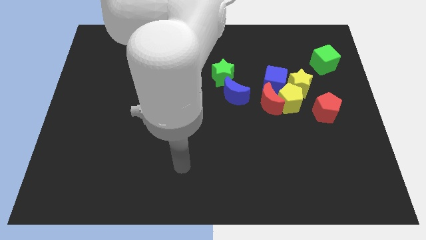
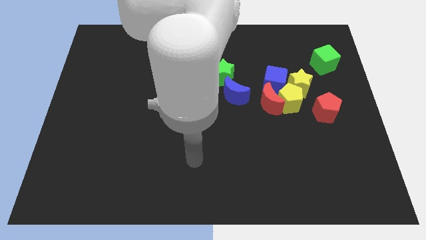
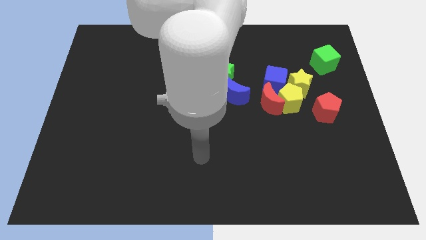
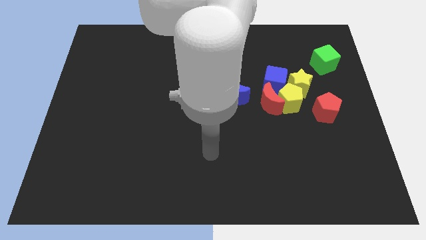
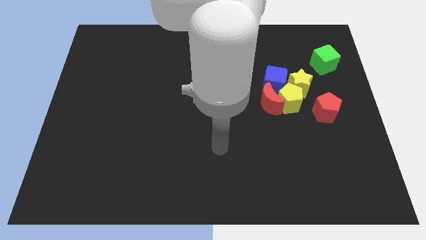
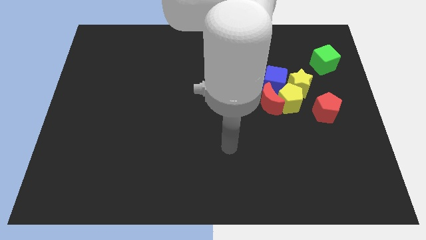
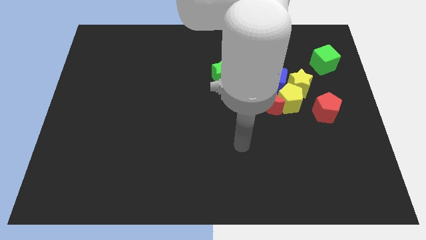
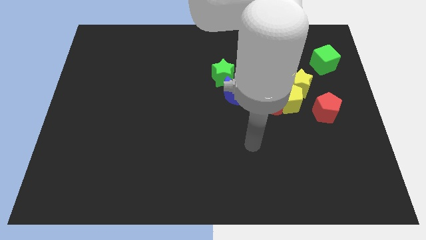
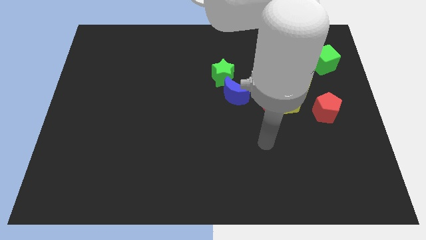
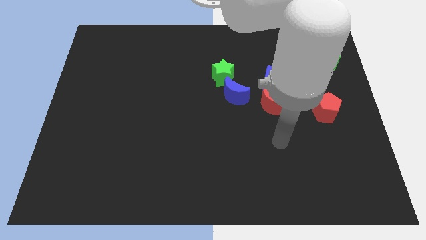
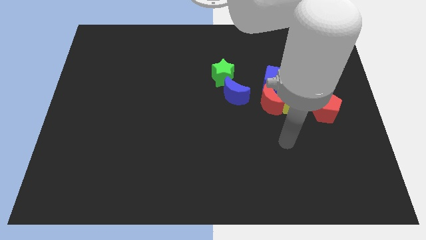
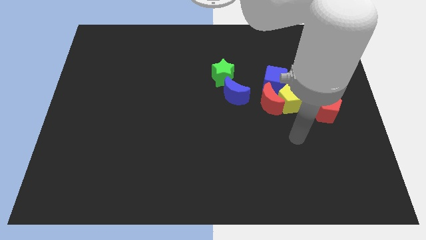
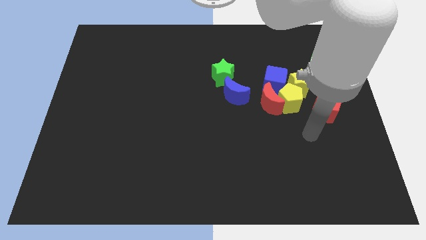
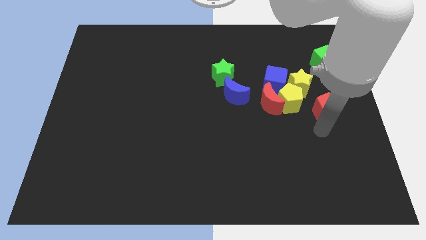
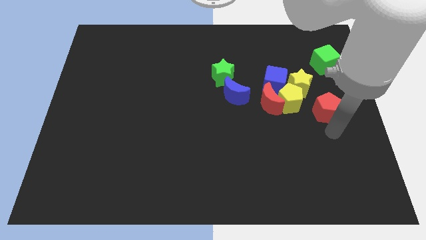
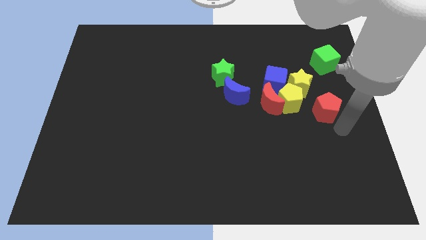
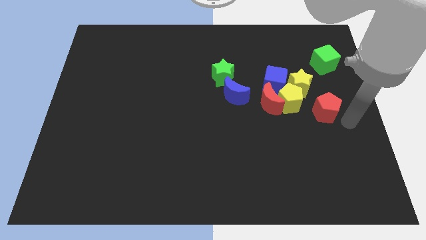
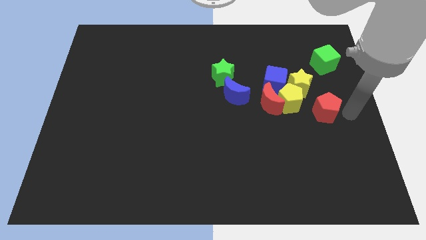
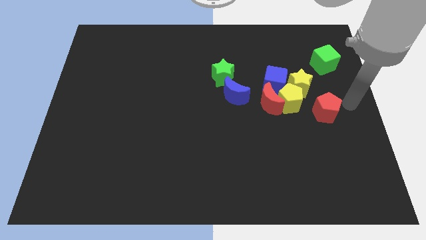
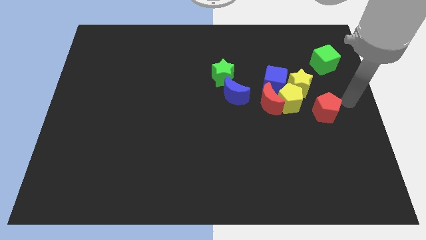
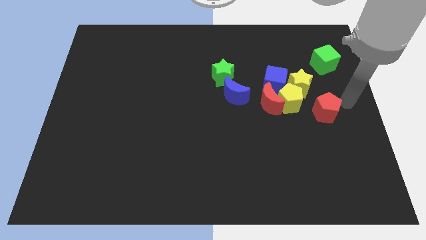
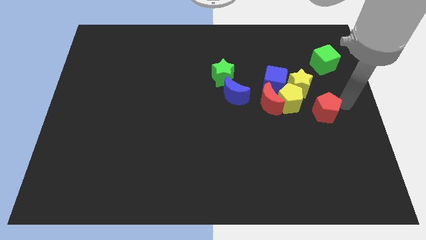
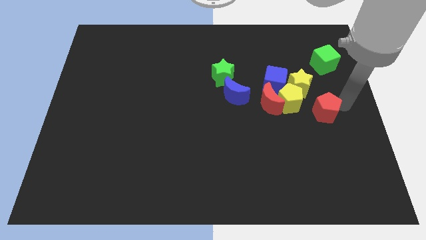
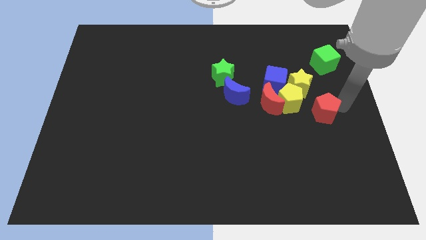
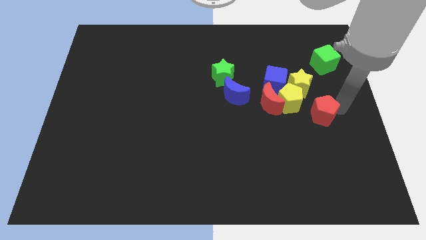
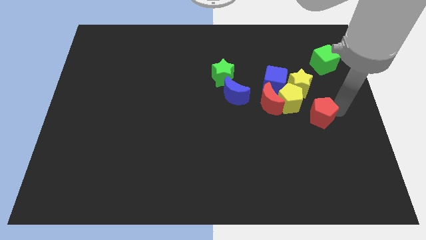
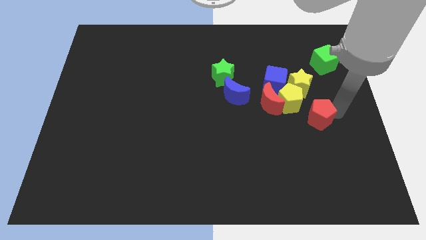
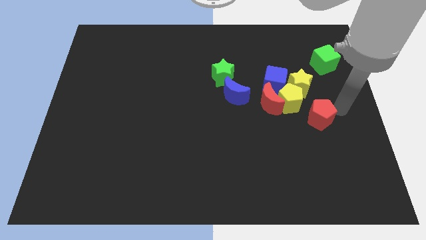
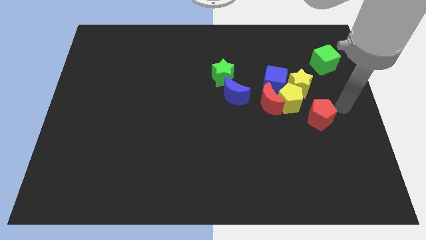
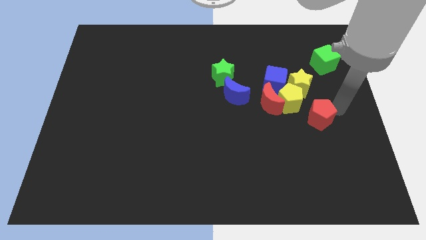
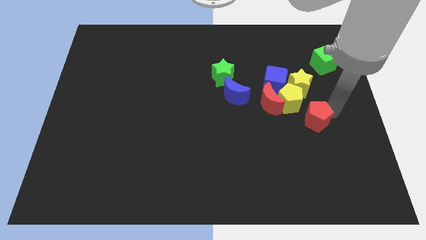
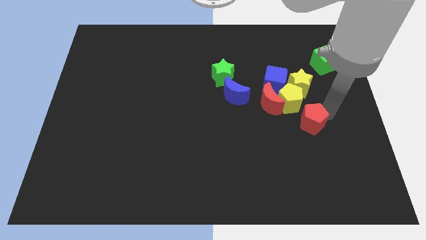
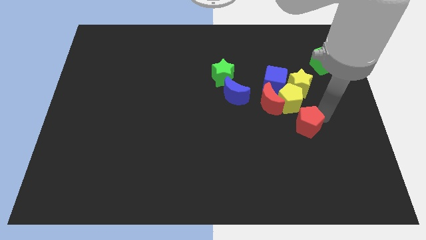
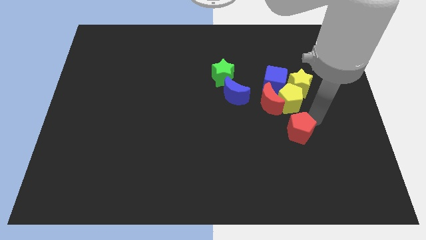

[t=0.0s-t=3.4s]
slightly move the red pentagon diagonally down and to the left

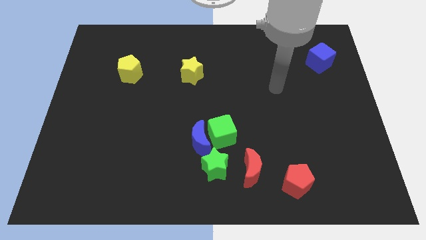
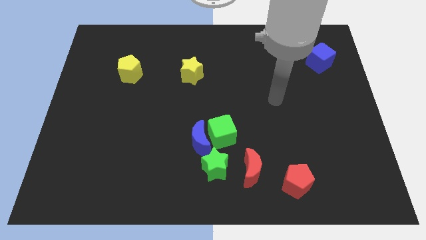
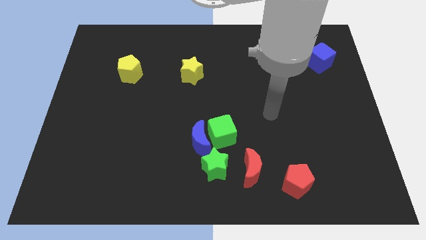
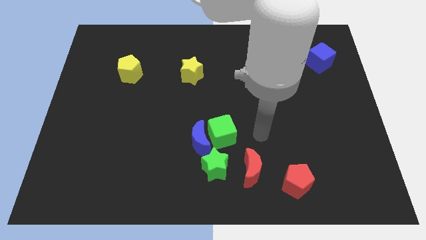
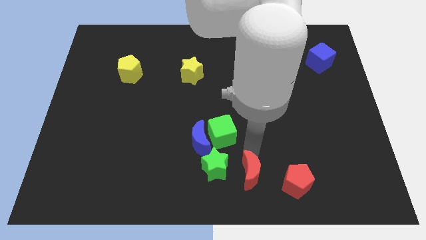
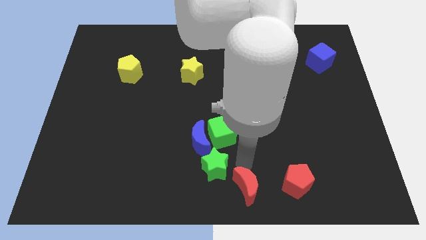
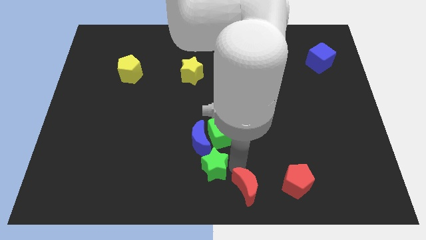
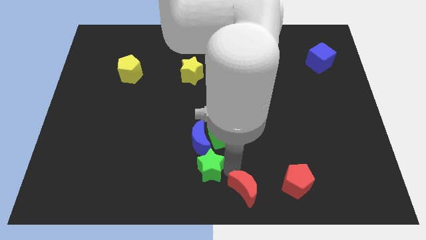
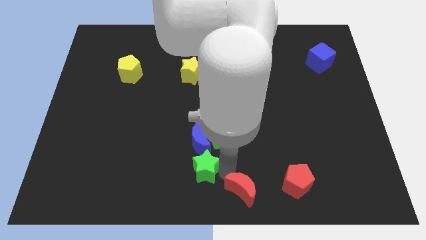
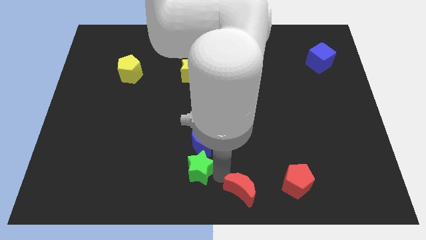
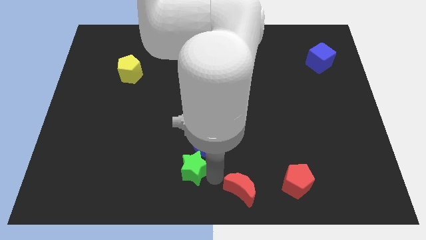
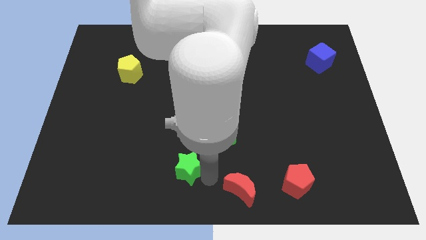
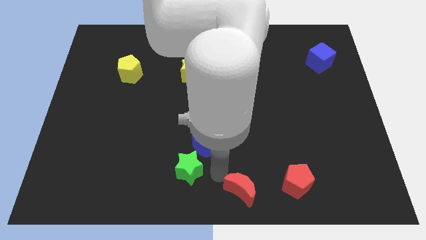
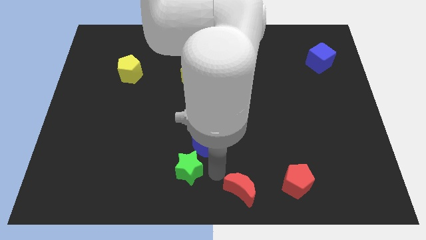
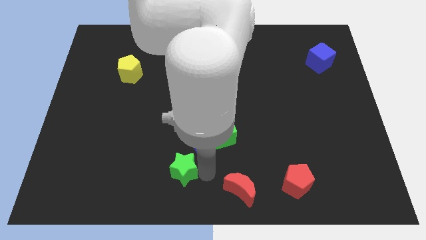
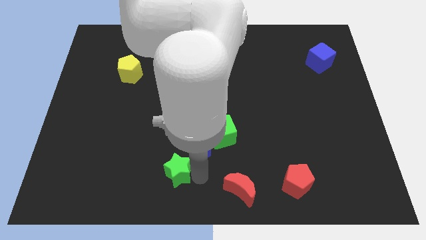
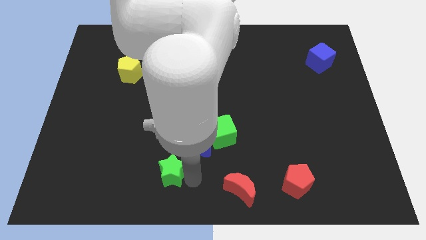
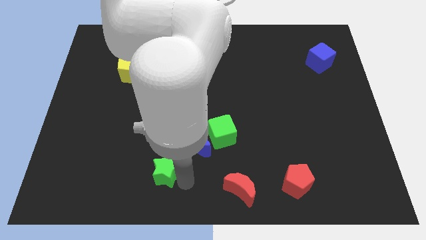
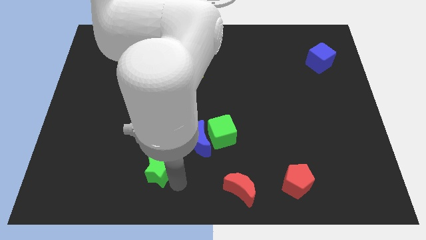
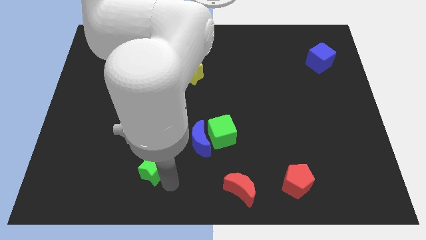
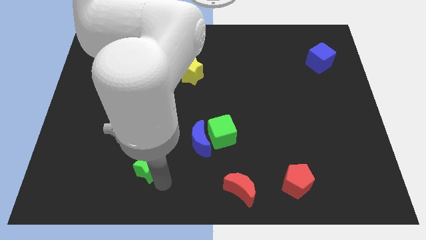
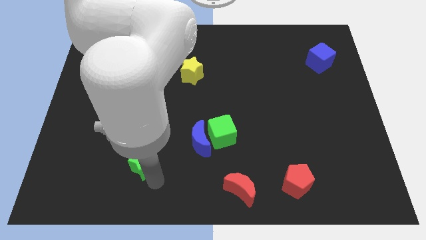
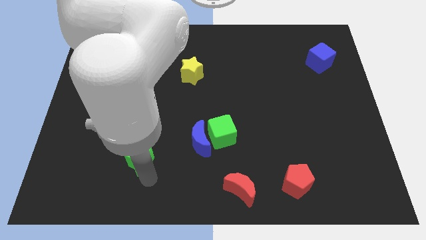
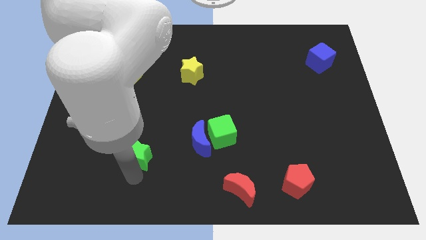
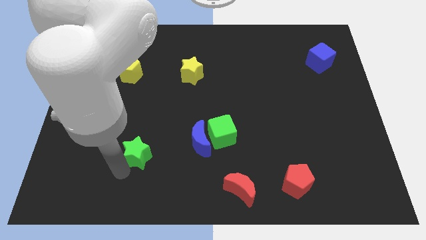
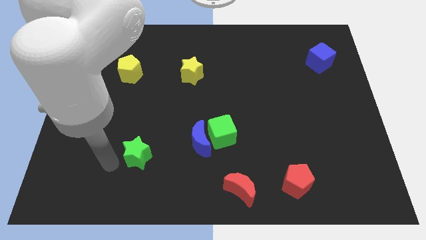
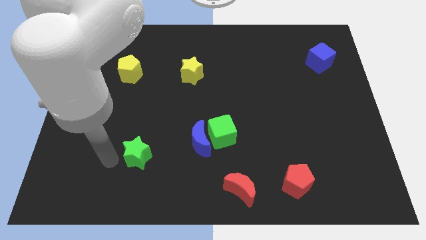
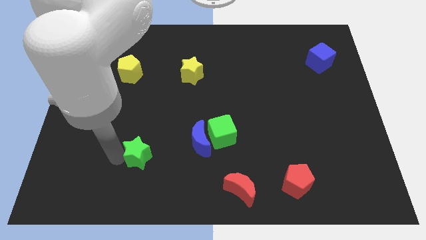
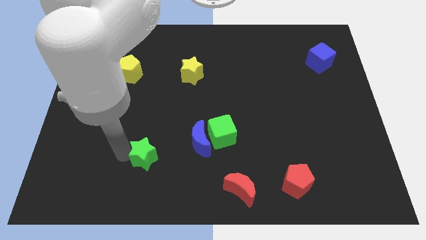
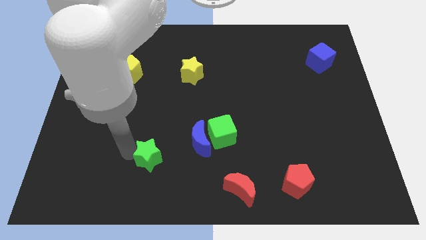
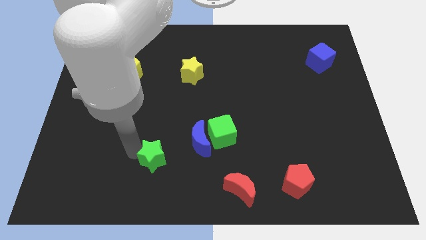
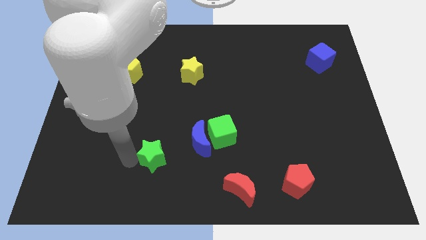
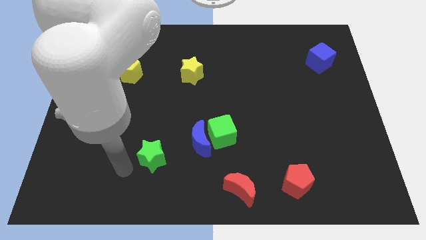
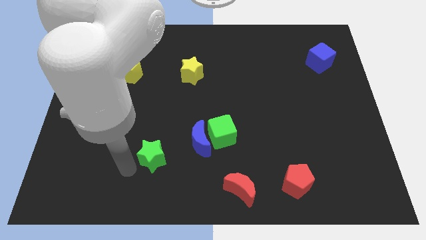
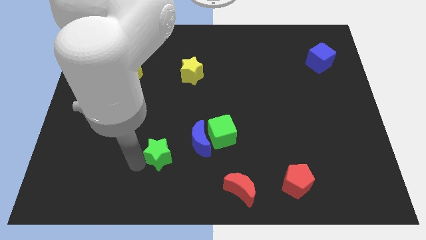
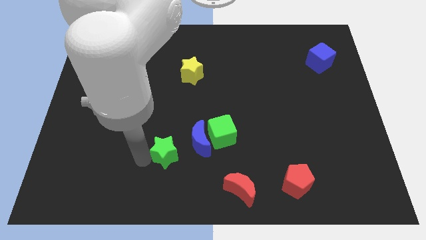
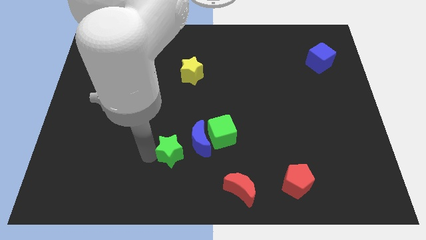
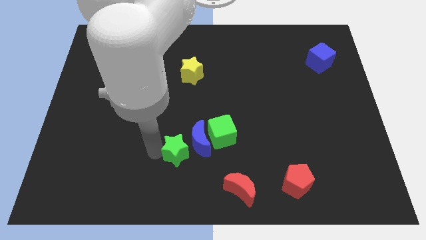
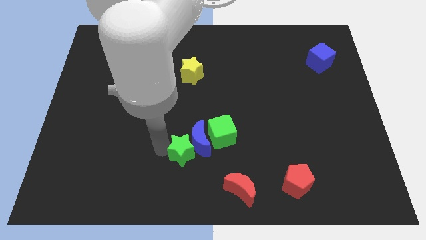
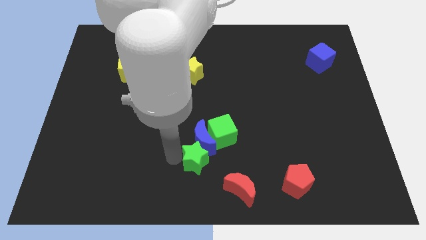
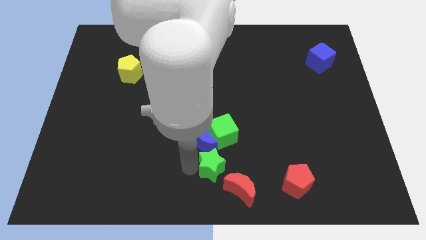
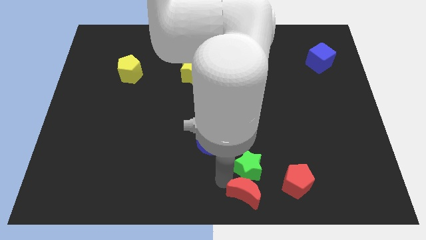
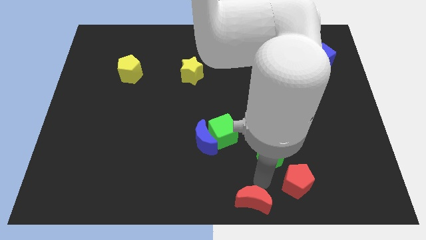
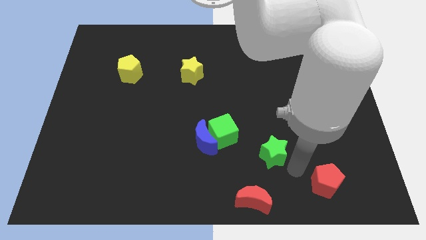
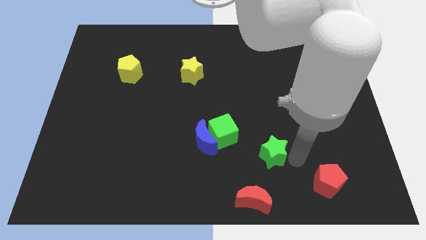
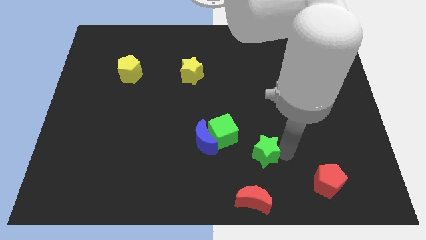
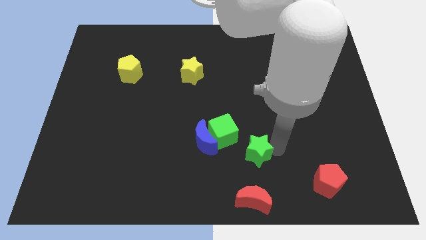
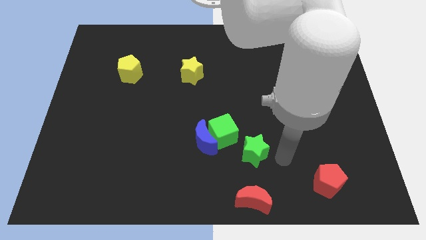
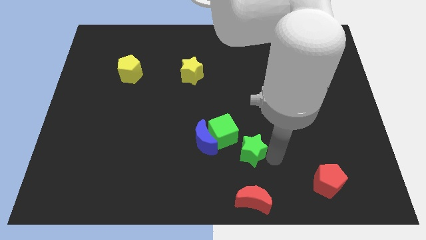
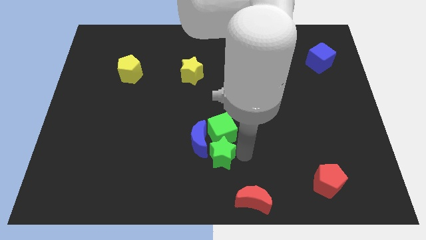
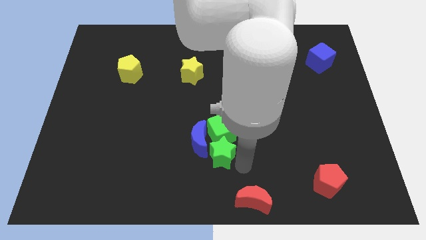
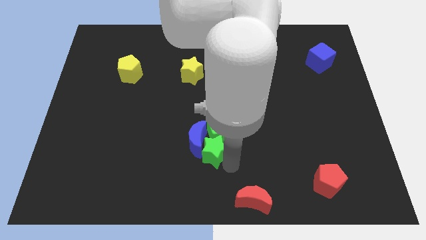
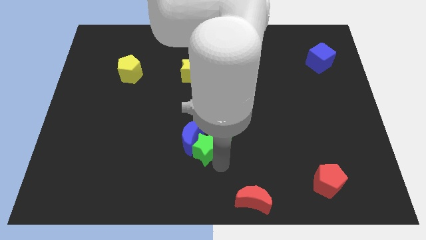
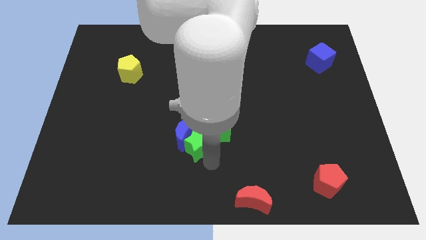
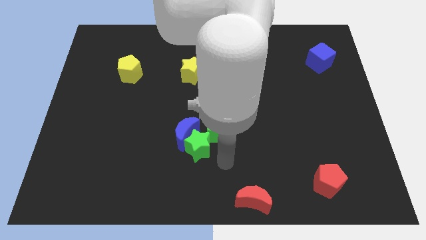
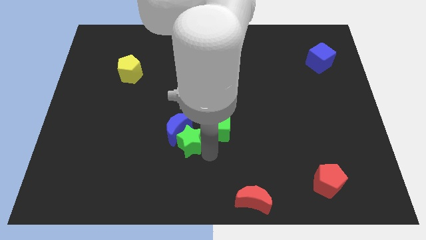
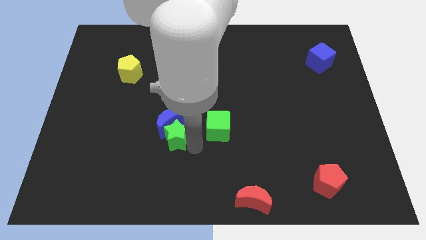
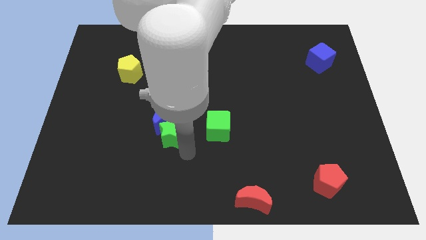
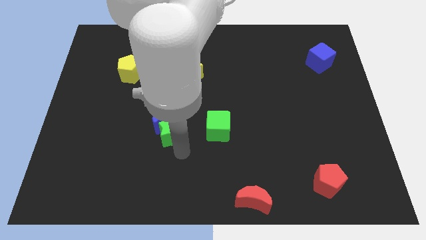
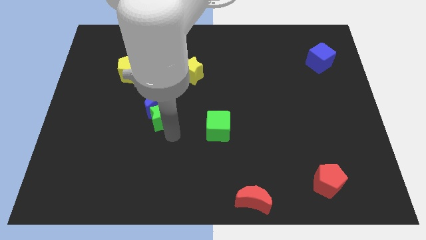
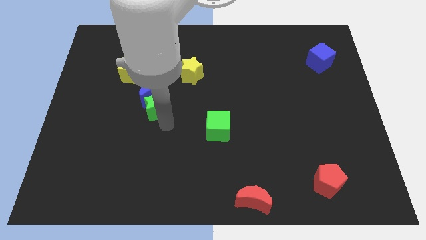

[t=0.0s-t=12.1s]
slide the green star up and then left
